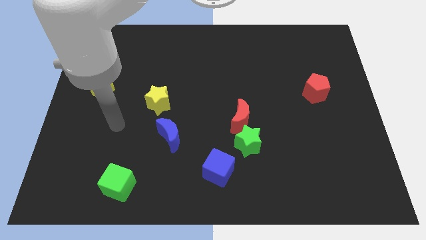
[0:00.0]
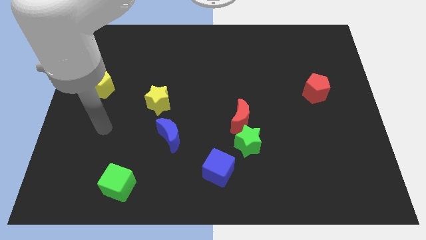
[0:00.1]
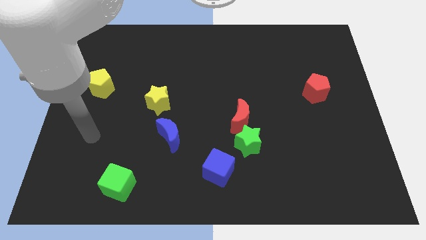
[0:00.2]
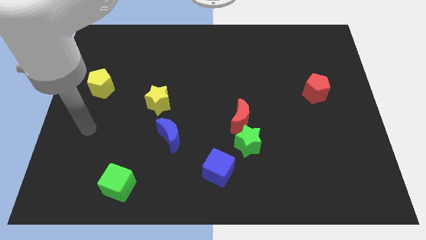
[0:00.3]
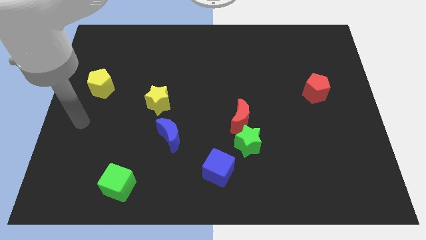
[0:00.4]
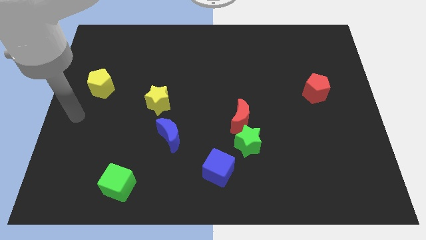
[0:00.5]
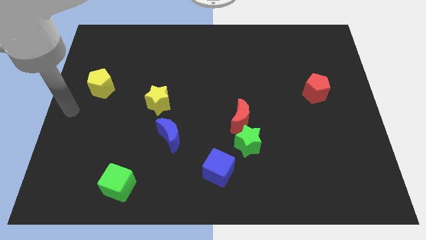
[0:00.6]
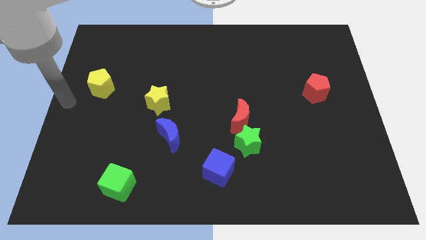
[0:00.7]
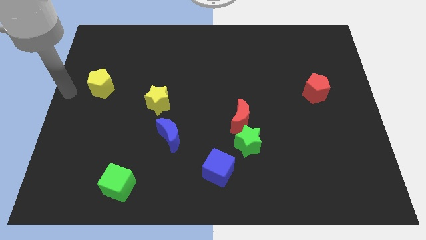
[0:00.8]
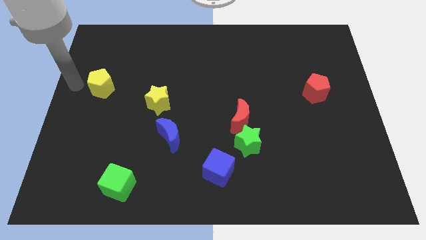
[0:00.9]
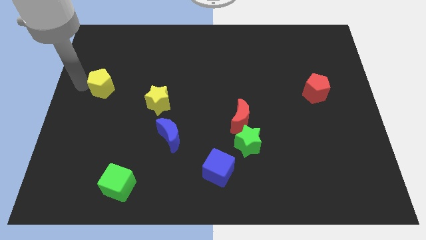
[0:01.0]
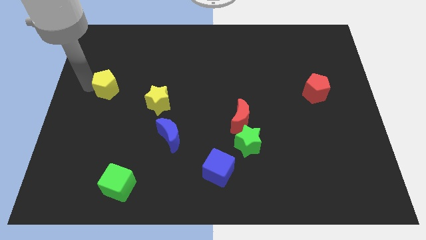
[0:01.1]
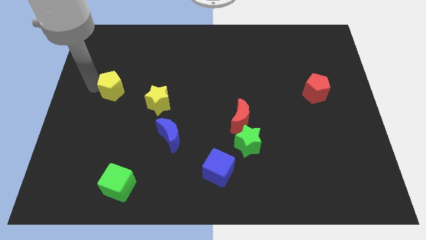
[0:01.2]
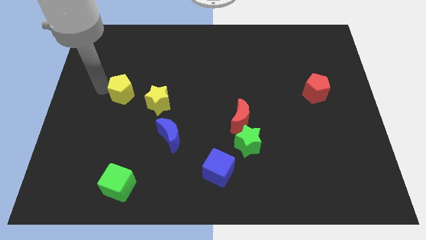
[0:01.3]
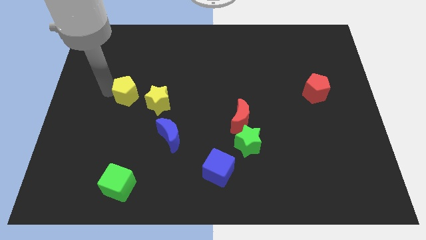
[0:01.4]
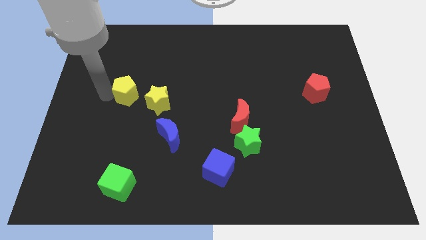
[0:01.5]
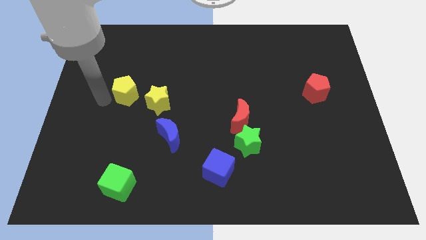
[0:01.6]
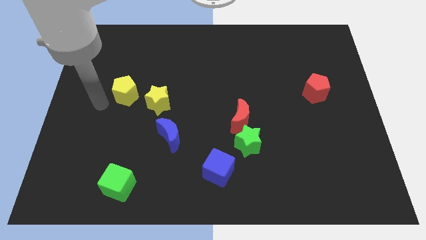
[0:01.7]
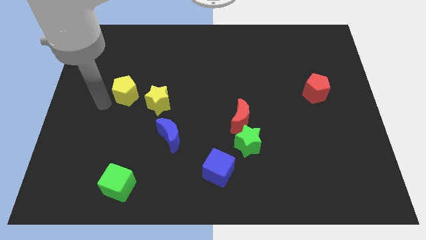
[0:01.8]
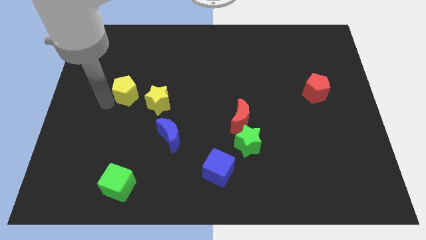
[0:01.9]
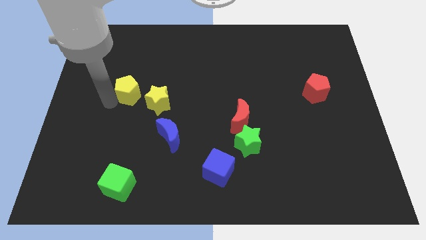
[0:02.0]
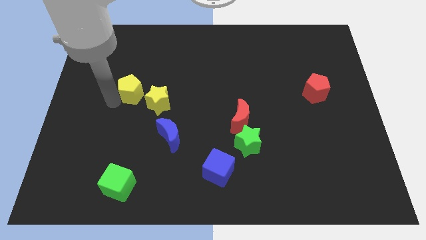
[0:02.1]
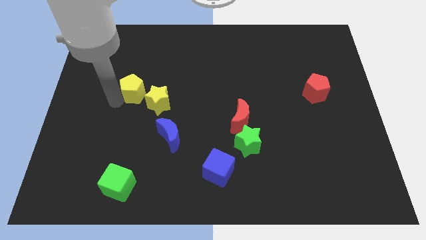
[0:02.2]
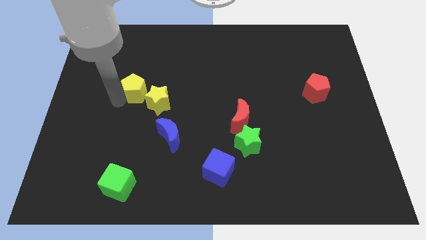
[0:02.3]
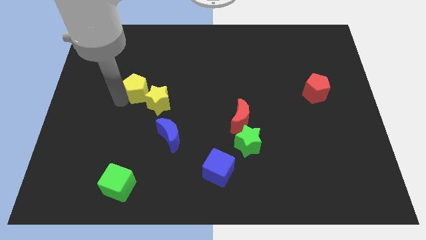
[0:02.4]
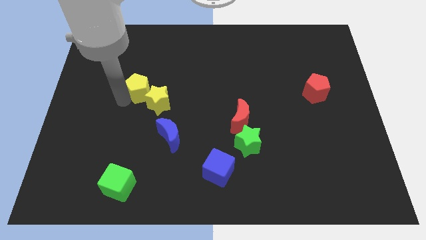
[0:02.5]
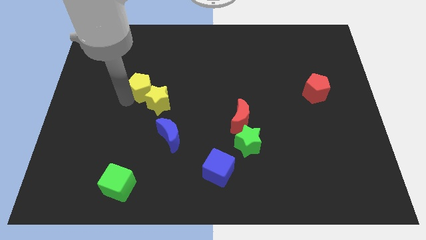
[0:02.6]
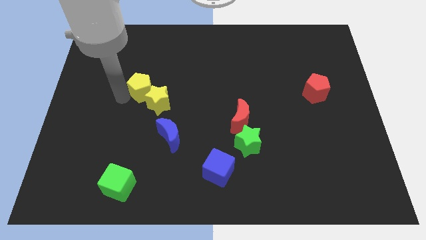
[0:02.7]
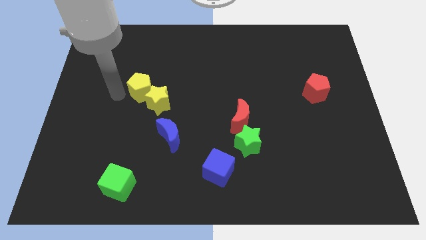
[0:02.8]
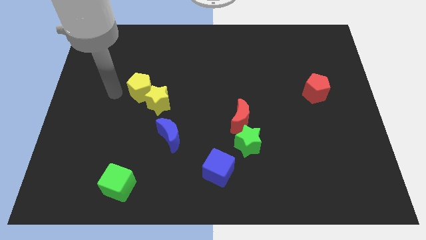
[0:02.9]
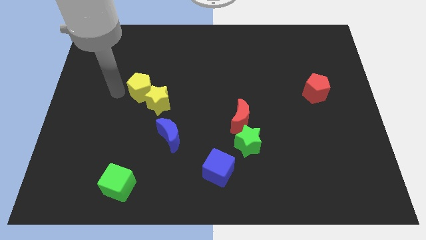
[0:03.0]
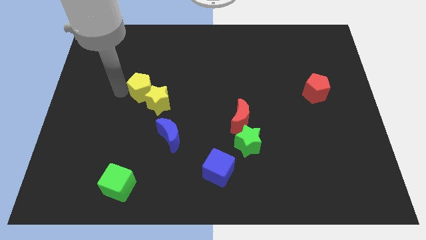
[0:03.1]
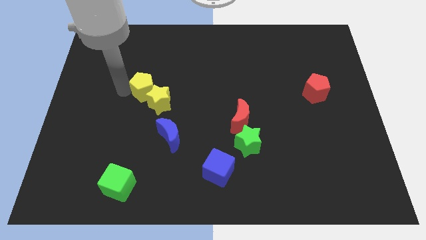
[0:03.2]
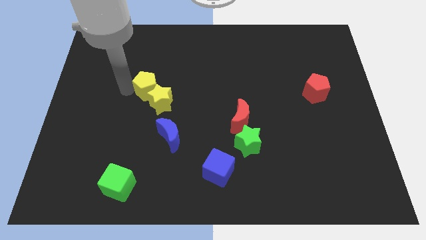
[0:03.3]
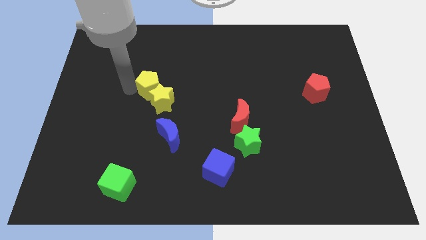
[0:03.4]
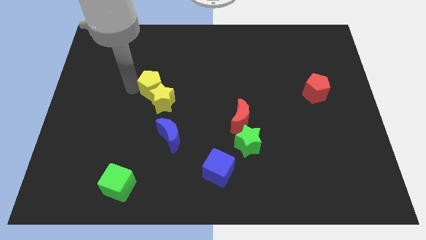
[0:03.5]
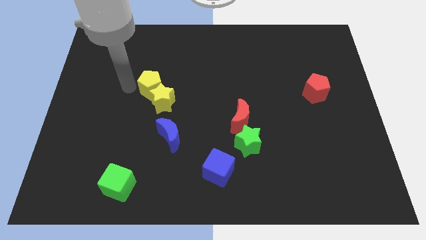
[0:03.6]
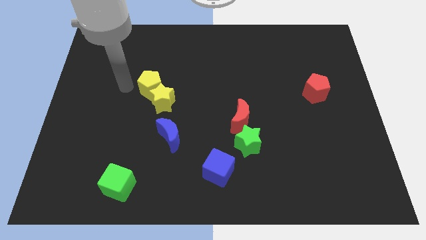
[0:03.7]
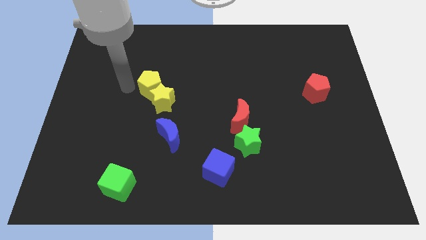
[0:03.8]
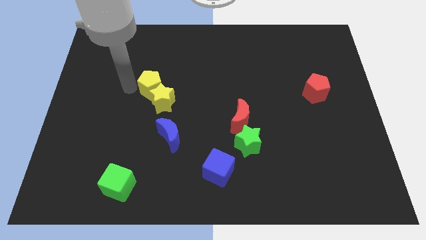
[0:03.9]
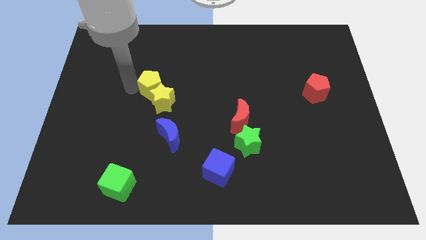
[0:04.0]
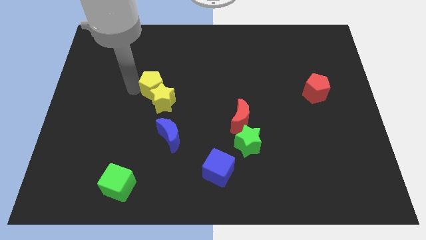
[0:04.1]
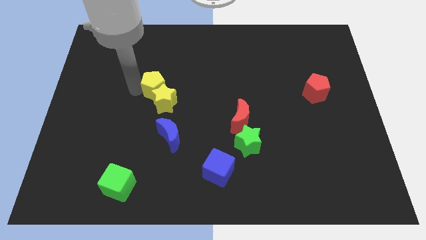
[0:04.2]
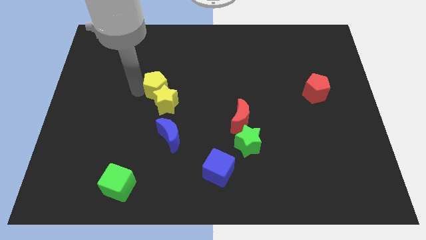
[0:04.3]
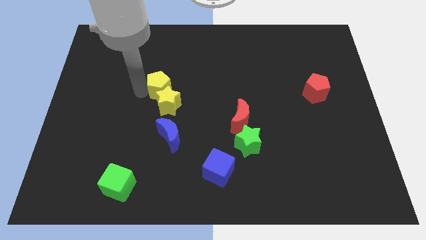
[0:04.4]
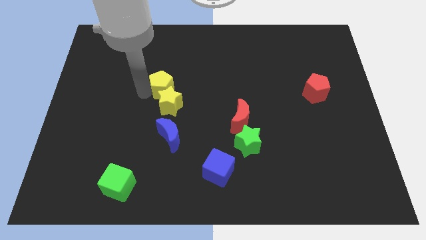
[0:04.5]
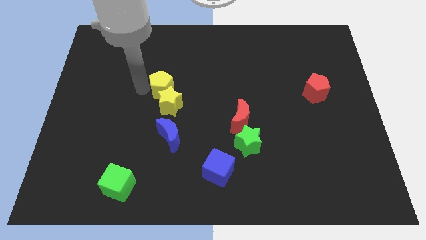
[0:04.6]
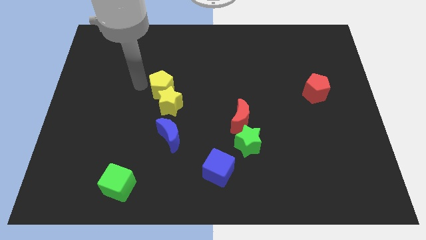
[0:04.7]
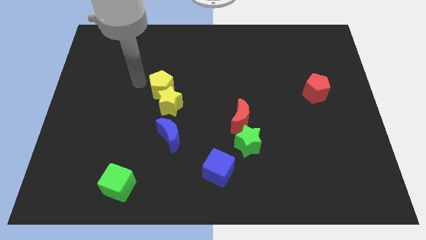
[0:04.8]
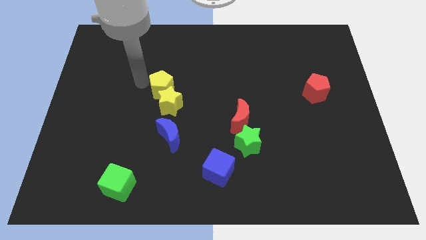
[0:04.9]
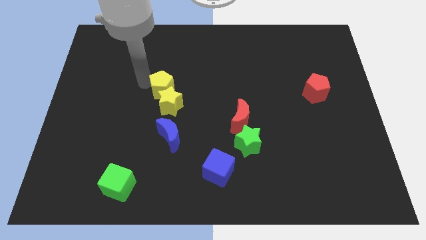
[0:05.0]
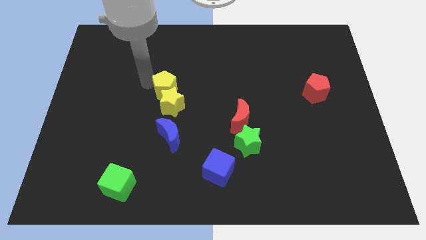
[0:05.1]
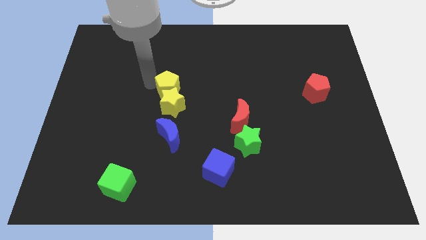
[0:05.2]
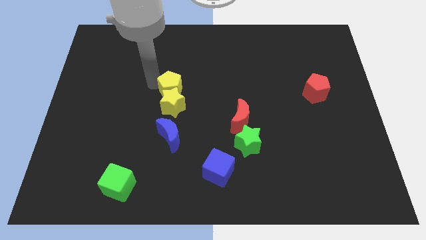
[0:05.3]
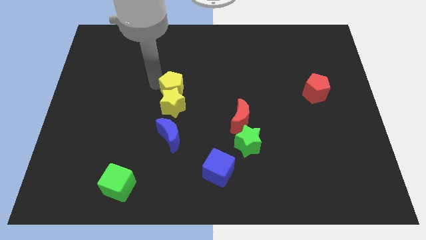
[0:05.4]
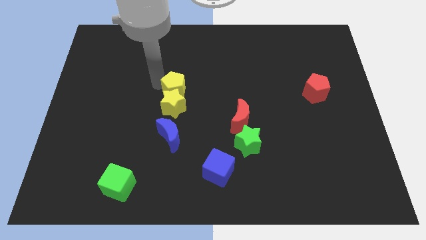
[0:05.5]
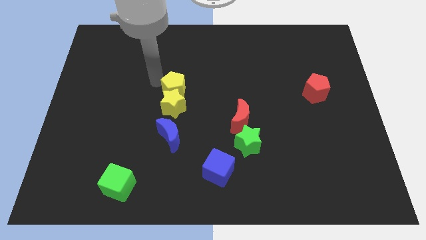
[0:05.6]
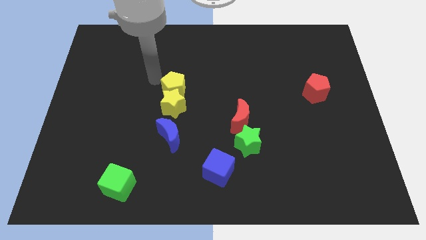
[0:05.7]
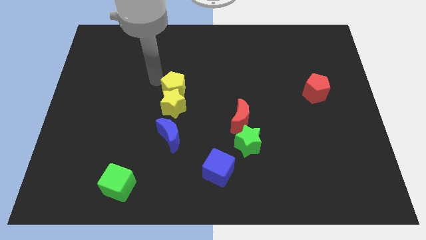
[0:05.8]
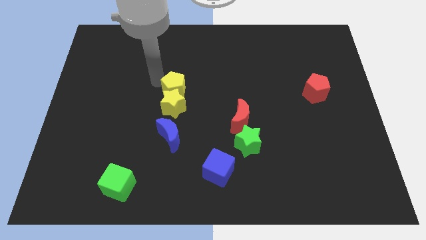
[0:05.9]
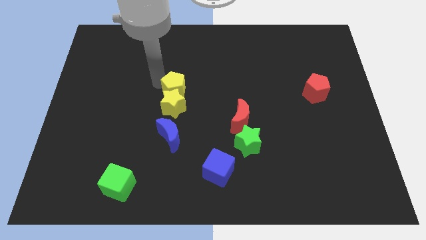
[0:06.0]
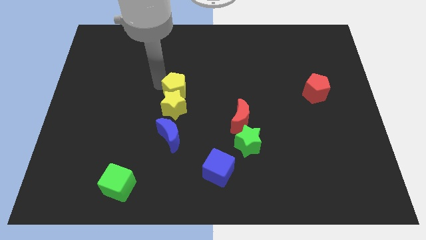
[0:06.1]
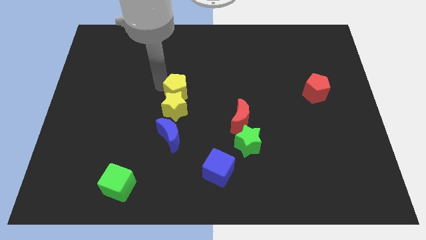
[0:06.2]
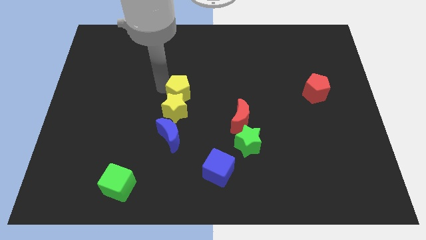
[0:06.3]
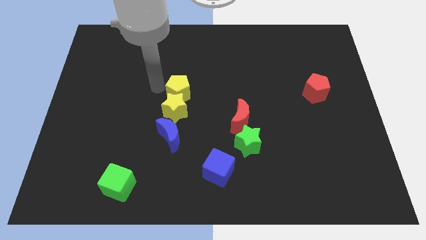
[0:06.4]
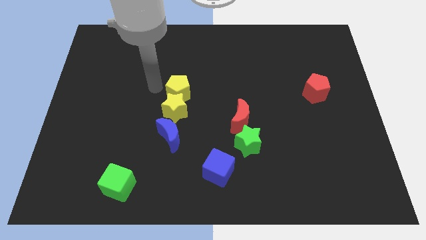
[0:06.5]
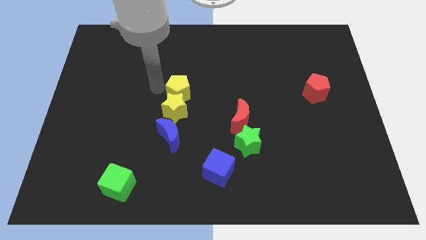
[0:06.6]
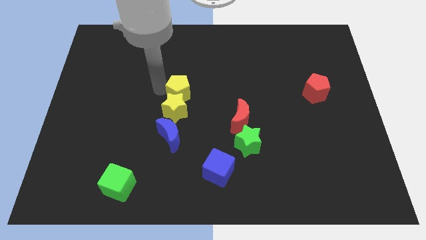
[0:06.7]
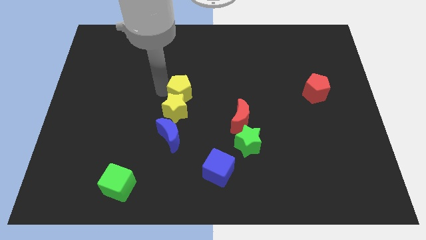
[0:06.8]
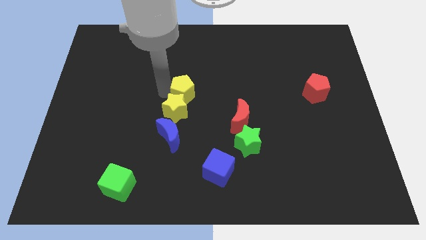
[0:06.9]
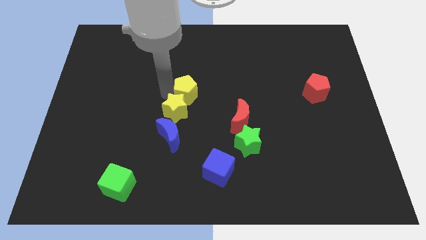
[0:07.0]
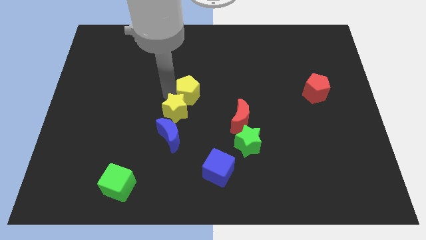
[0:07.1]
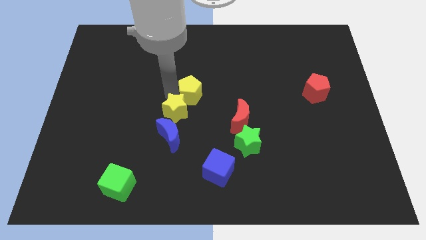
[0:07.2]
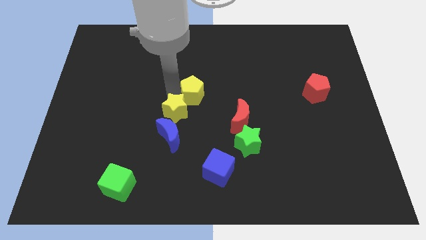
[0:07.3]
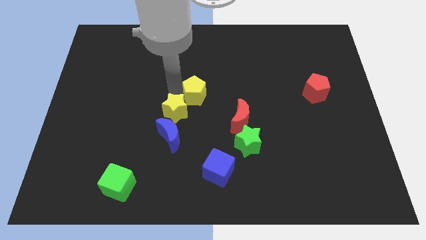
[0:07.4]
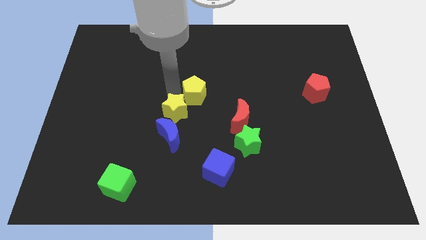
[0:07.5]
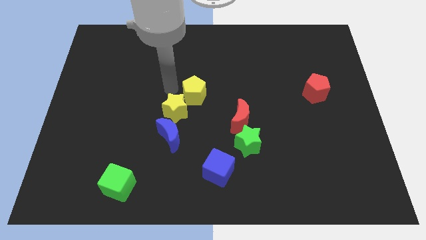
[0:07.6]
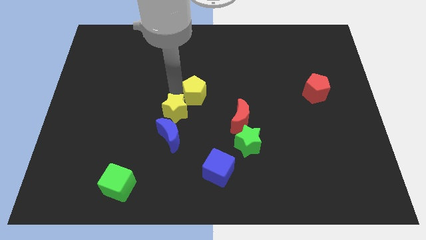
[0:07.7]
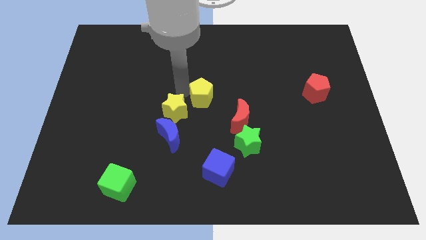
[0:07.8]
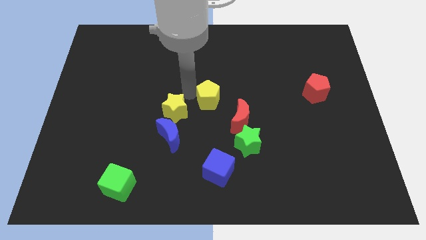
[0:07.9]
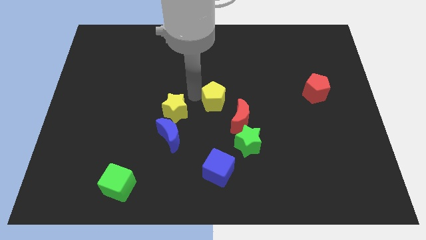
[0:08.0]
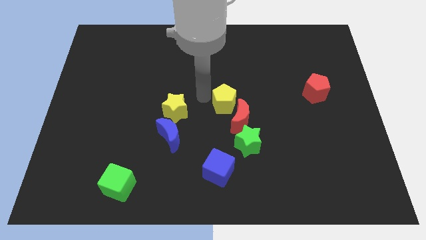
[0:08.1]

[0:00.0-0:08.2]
slide the yellow pentagon to the red moon
